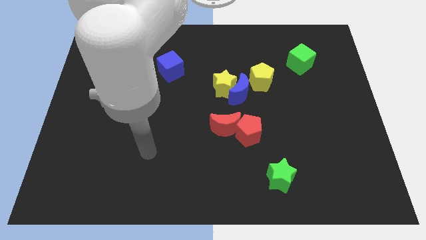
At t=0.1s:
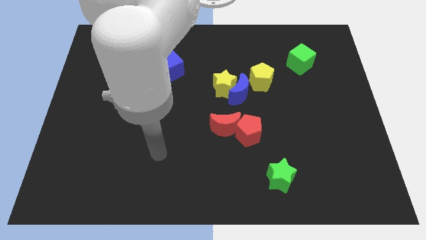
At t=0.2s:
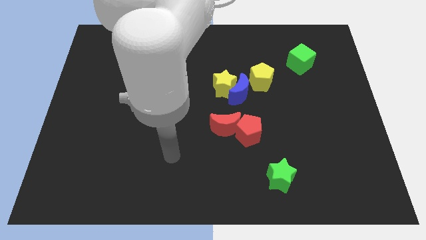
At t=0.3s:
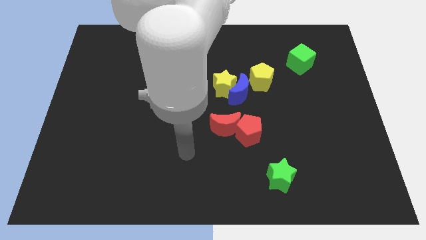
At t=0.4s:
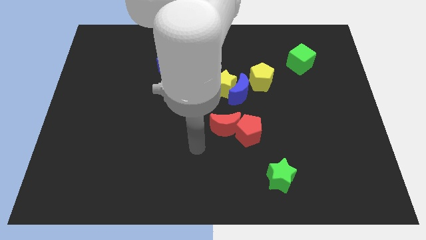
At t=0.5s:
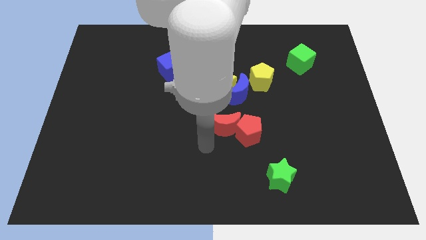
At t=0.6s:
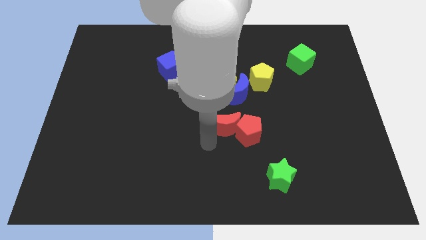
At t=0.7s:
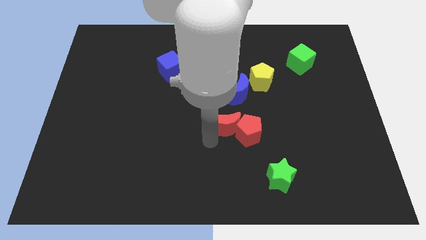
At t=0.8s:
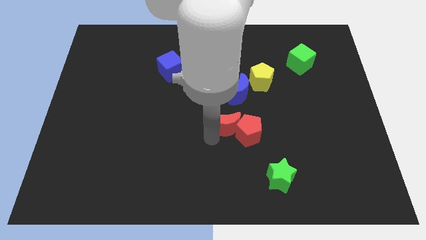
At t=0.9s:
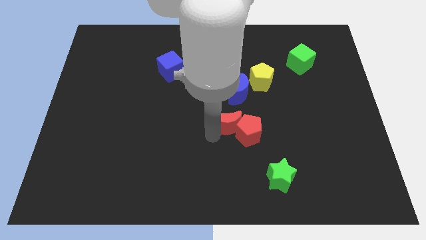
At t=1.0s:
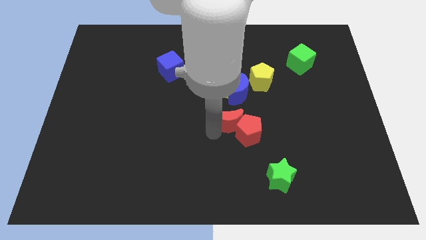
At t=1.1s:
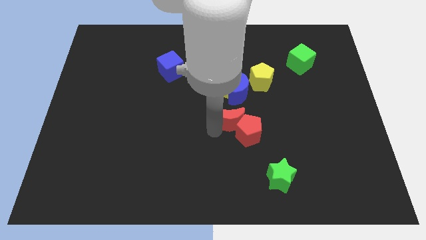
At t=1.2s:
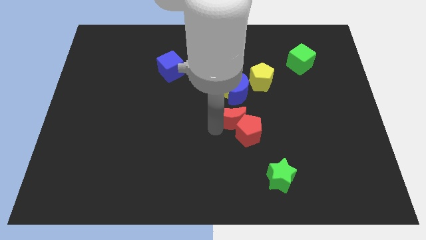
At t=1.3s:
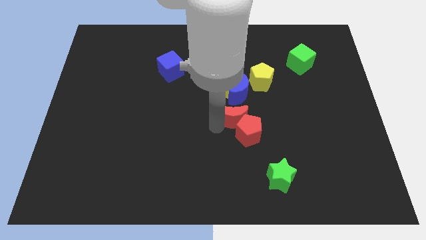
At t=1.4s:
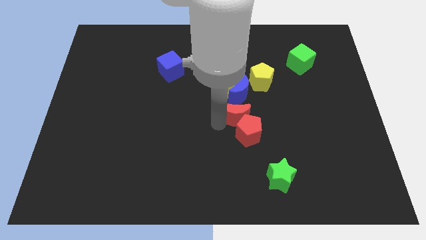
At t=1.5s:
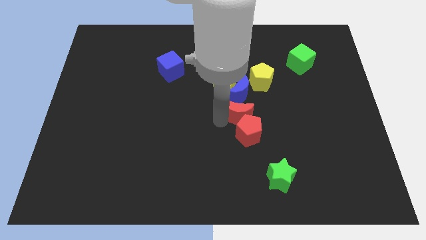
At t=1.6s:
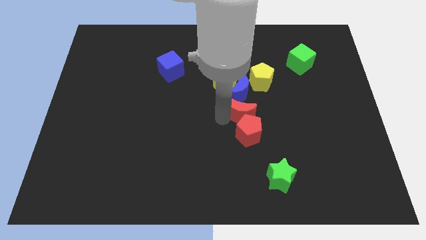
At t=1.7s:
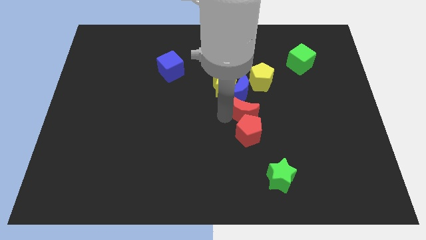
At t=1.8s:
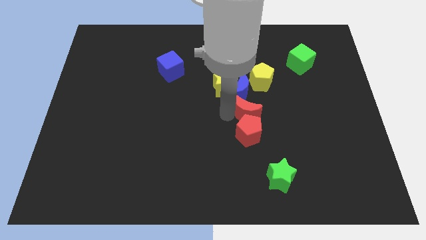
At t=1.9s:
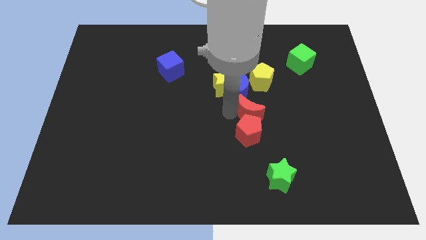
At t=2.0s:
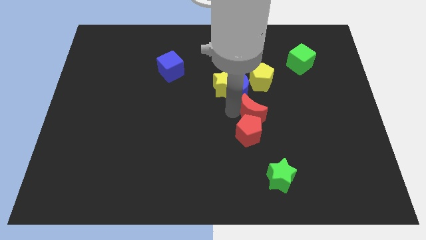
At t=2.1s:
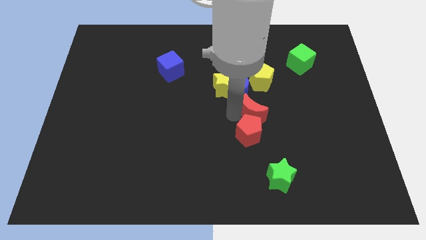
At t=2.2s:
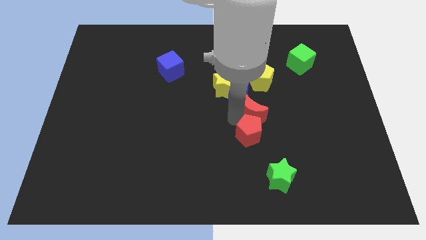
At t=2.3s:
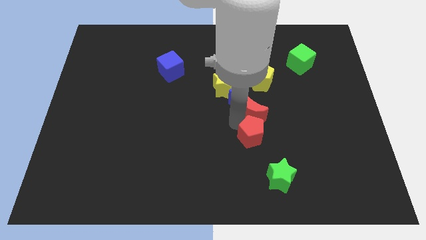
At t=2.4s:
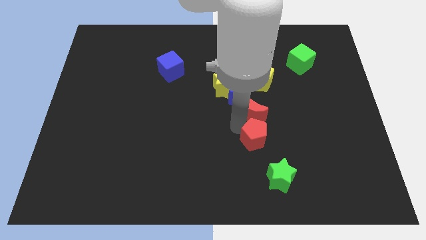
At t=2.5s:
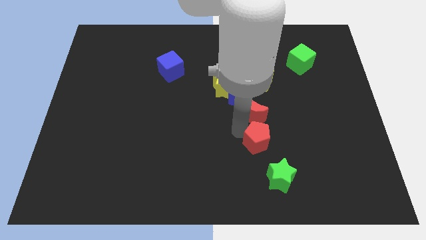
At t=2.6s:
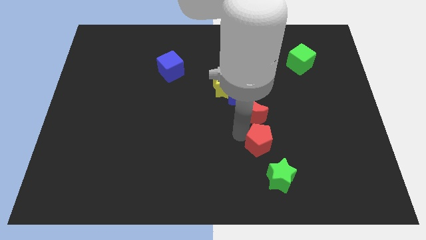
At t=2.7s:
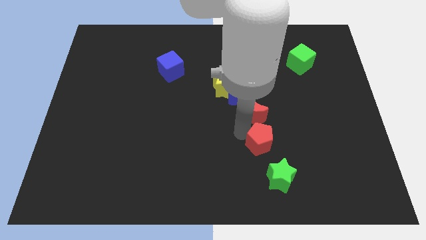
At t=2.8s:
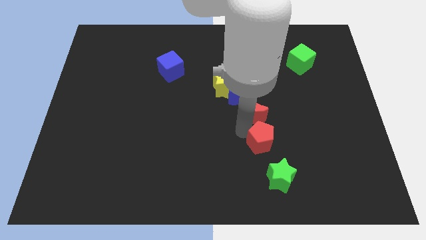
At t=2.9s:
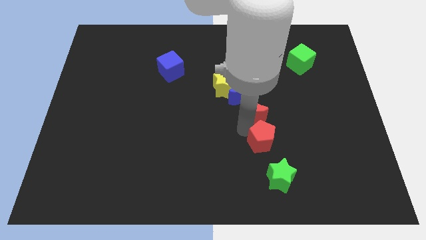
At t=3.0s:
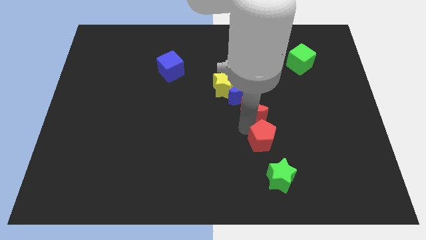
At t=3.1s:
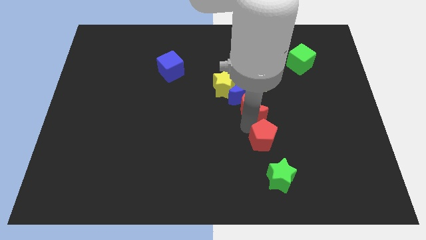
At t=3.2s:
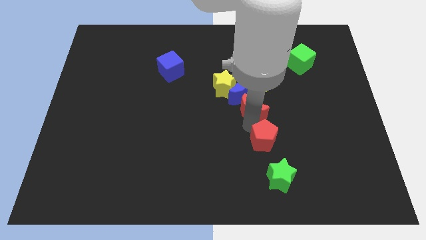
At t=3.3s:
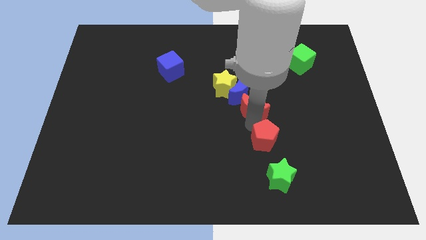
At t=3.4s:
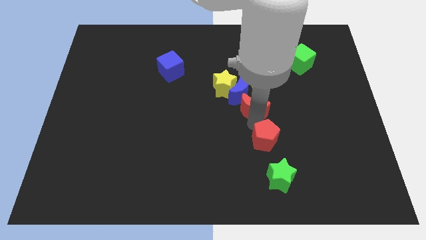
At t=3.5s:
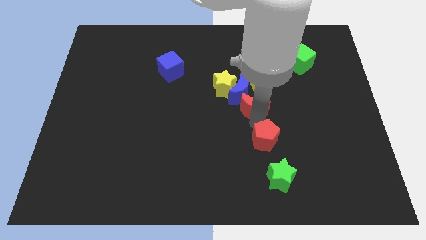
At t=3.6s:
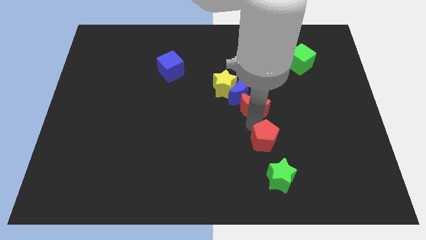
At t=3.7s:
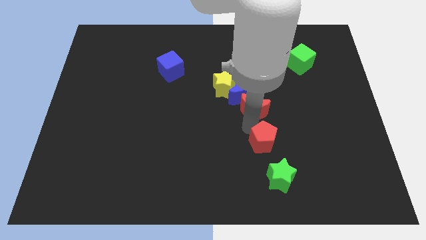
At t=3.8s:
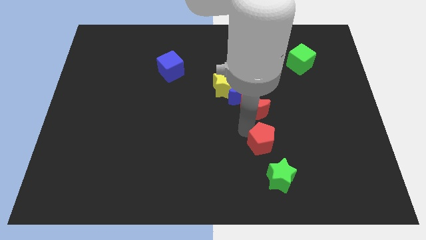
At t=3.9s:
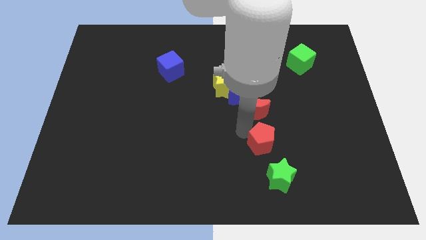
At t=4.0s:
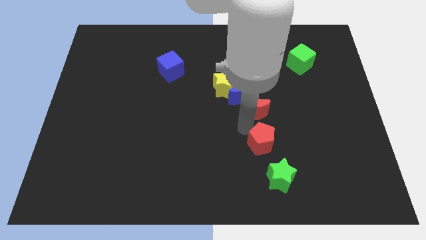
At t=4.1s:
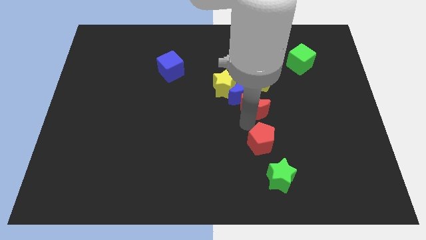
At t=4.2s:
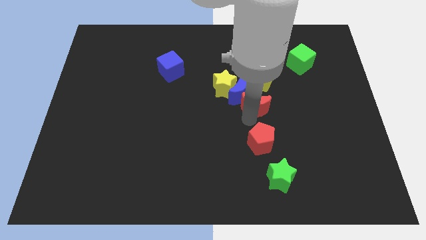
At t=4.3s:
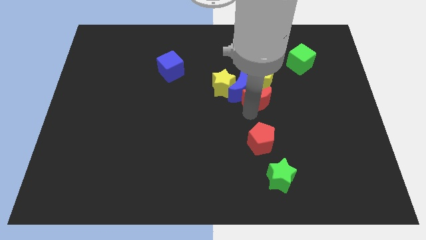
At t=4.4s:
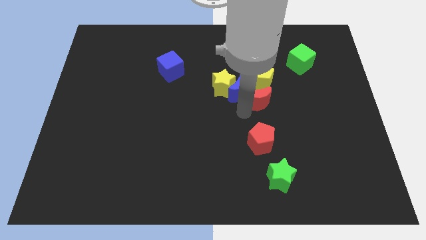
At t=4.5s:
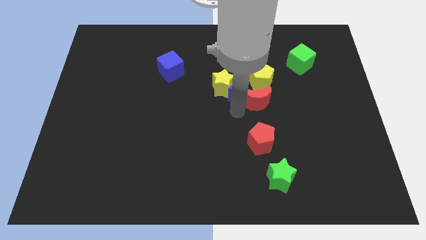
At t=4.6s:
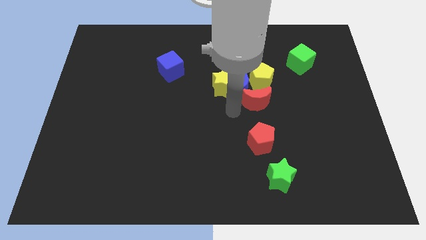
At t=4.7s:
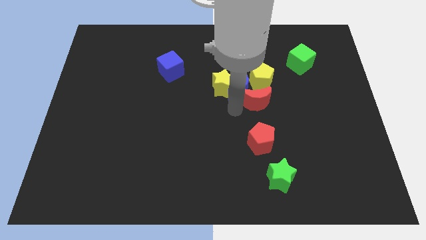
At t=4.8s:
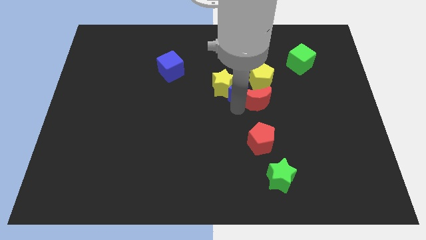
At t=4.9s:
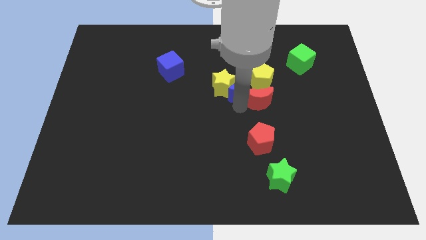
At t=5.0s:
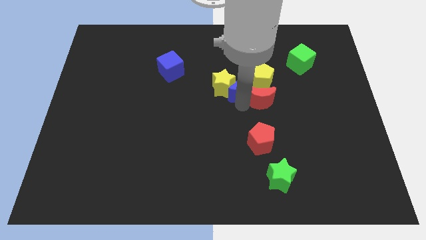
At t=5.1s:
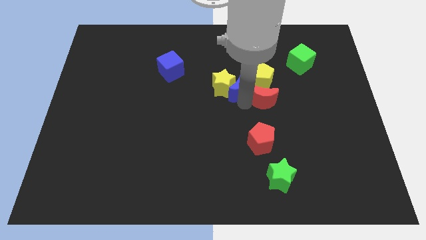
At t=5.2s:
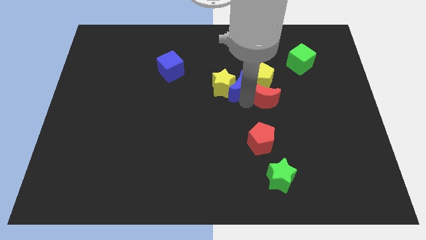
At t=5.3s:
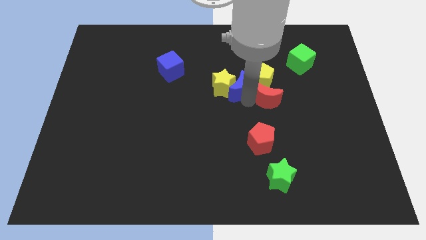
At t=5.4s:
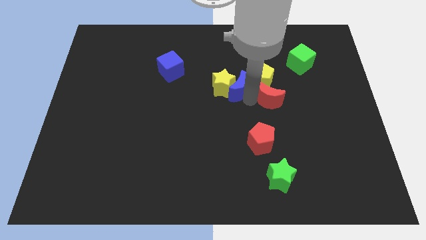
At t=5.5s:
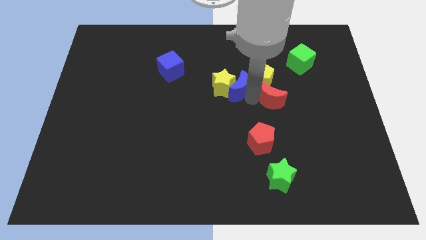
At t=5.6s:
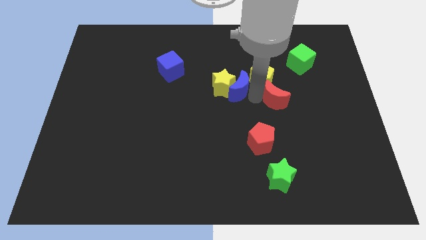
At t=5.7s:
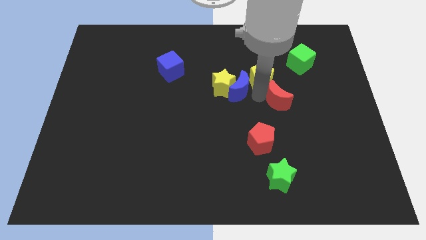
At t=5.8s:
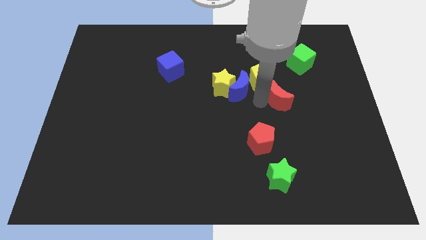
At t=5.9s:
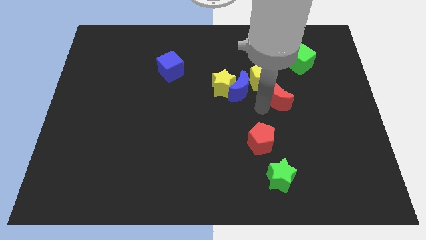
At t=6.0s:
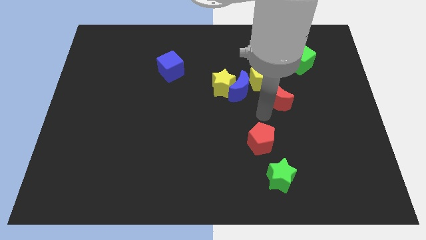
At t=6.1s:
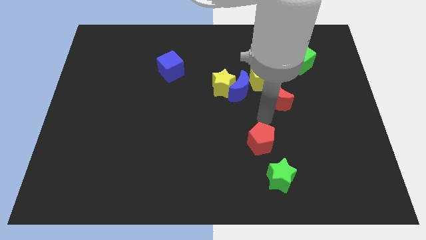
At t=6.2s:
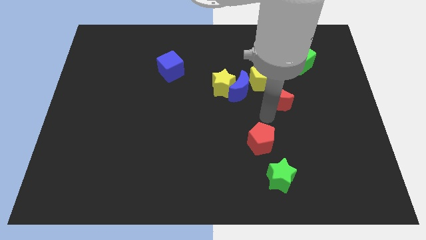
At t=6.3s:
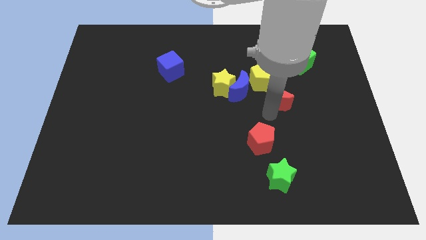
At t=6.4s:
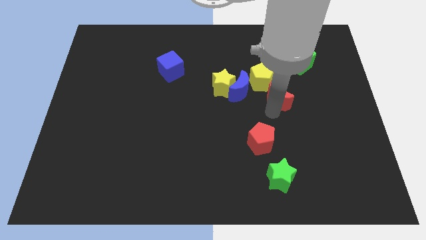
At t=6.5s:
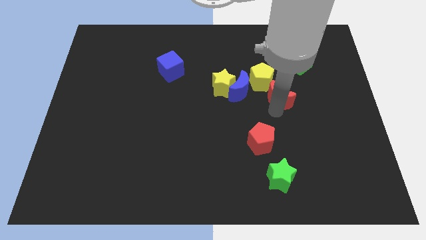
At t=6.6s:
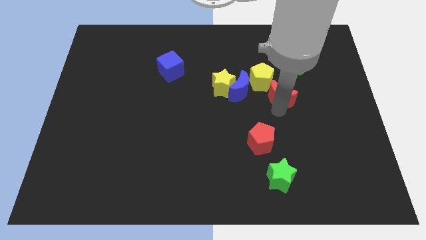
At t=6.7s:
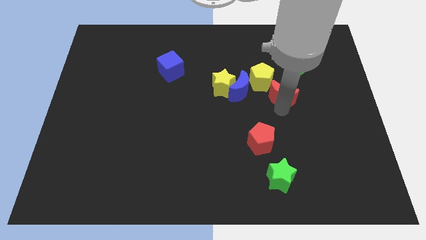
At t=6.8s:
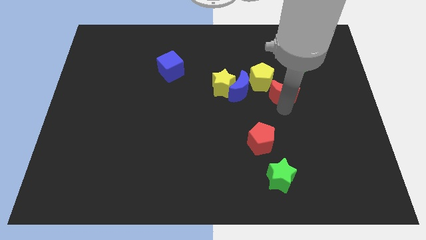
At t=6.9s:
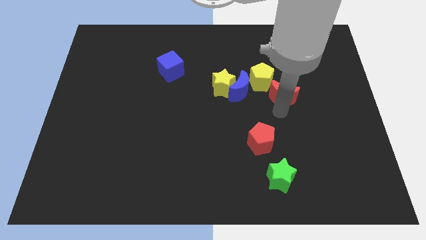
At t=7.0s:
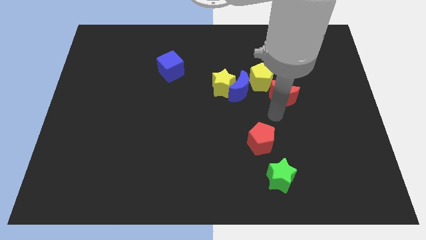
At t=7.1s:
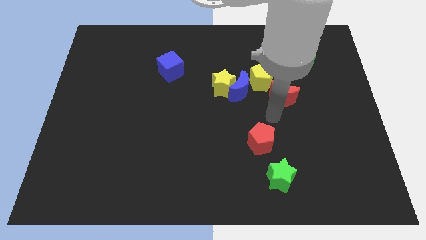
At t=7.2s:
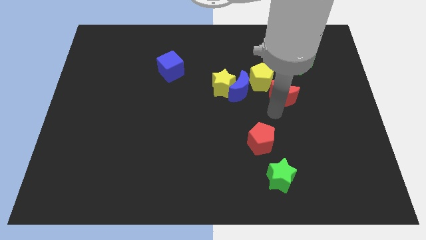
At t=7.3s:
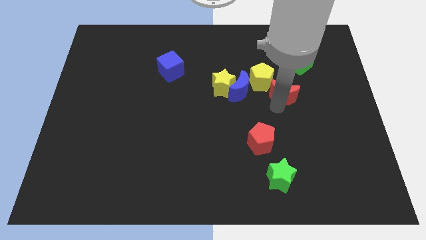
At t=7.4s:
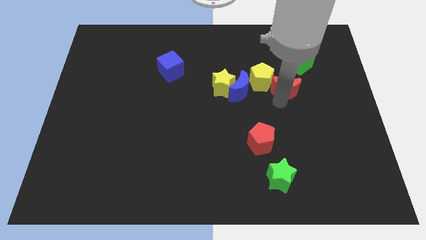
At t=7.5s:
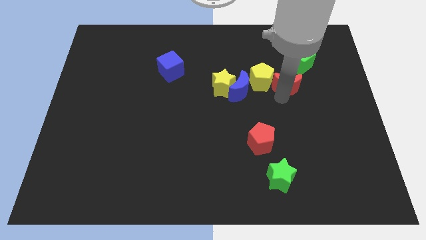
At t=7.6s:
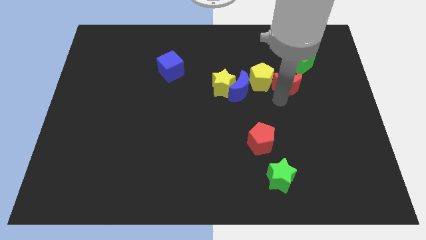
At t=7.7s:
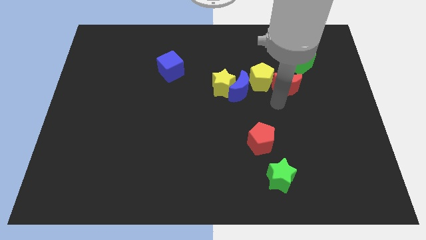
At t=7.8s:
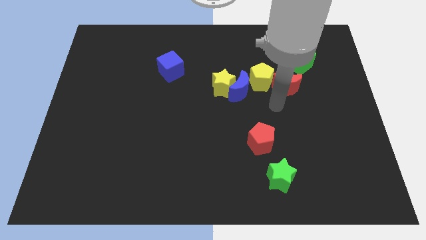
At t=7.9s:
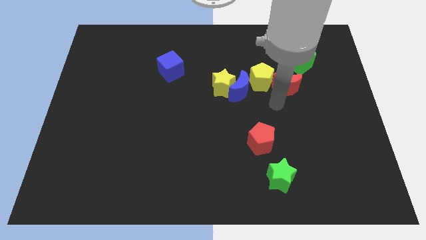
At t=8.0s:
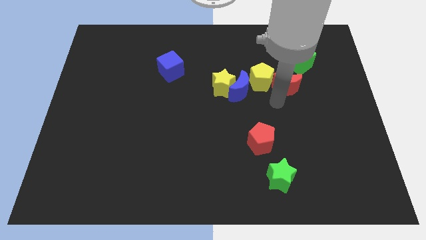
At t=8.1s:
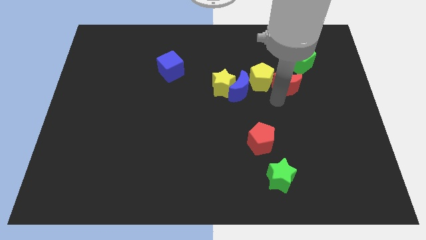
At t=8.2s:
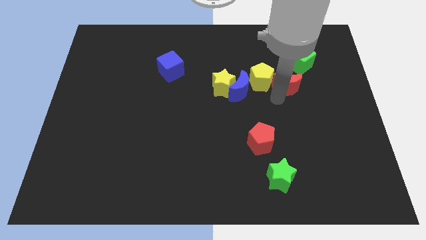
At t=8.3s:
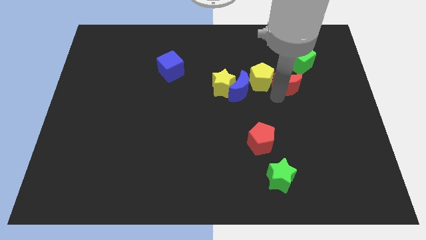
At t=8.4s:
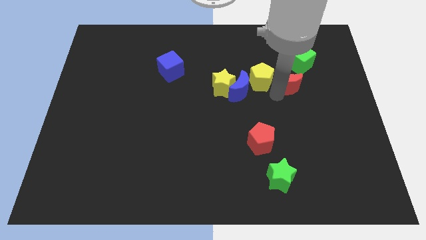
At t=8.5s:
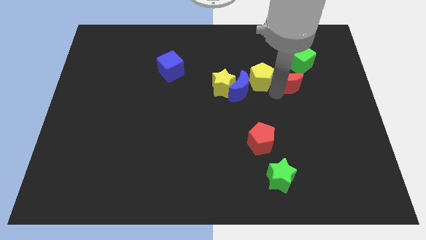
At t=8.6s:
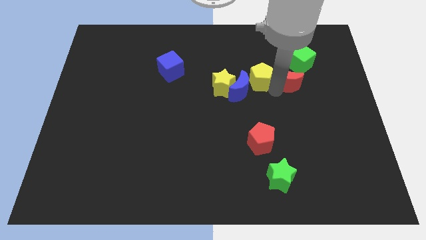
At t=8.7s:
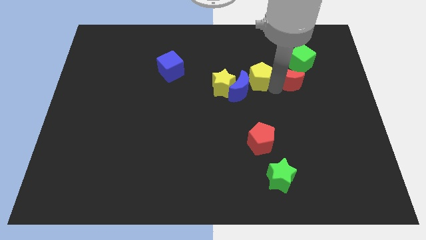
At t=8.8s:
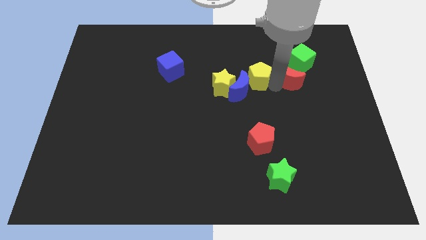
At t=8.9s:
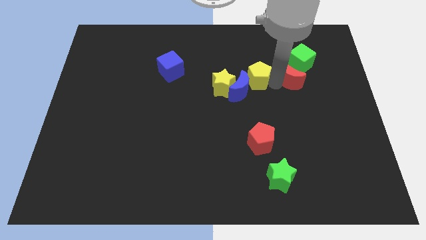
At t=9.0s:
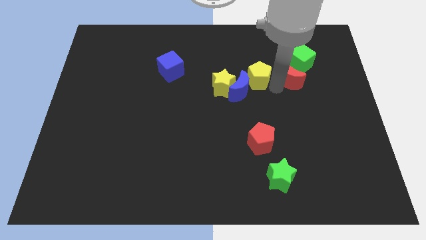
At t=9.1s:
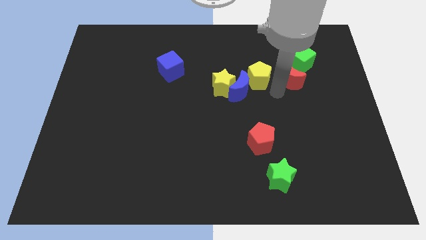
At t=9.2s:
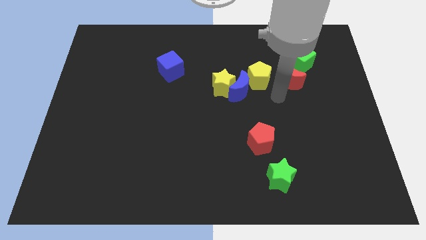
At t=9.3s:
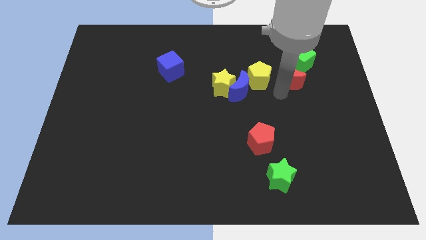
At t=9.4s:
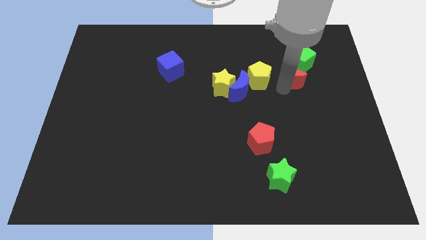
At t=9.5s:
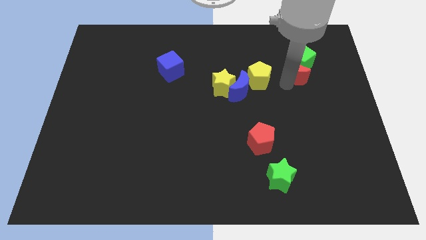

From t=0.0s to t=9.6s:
slide the red moon next to the green cube
